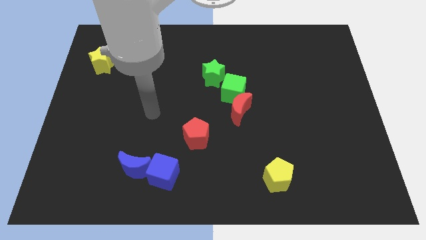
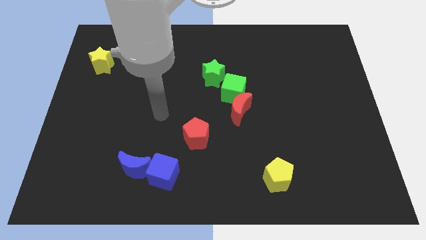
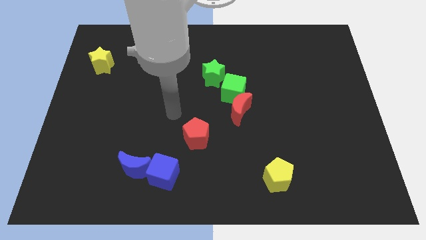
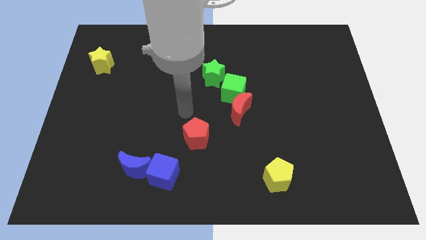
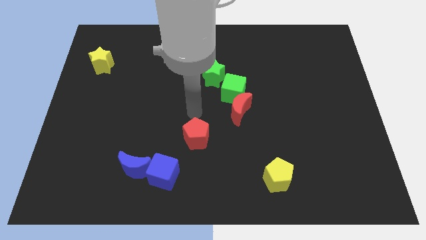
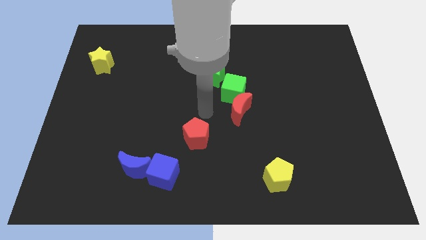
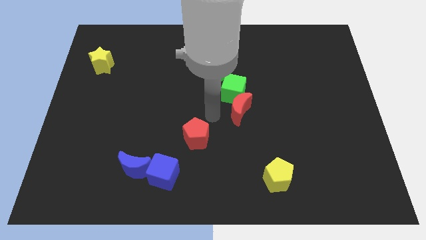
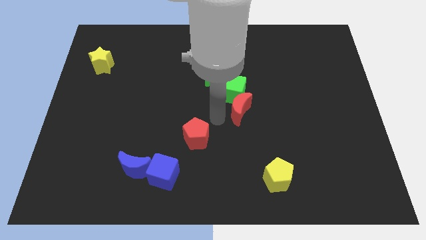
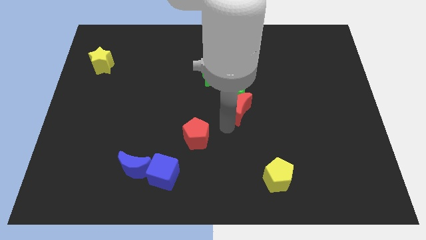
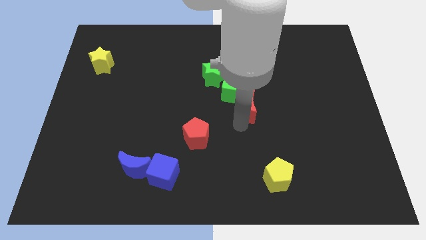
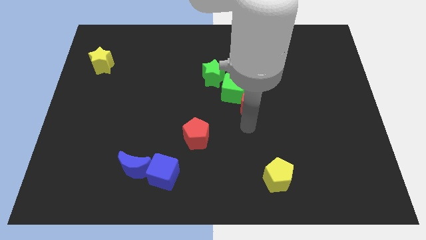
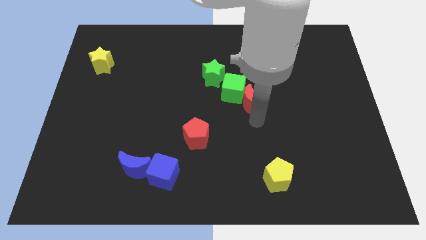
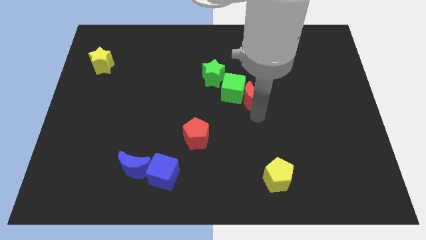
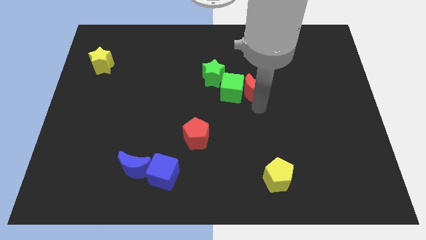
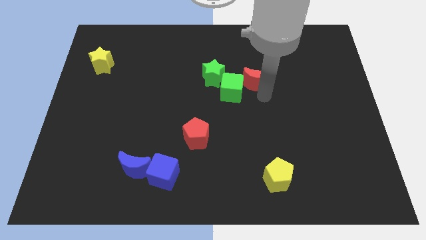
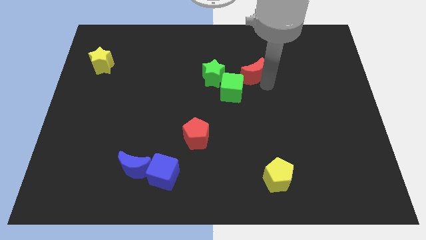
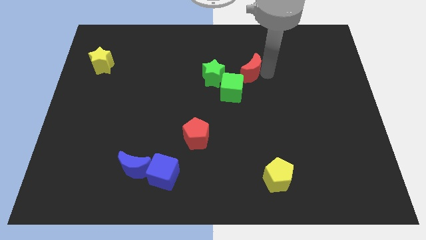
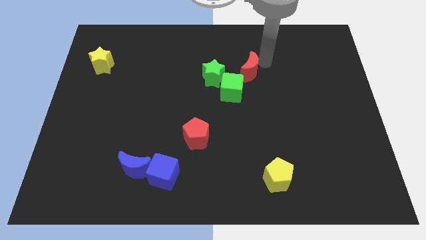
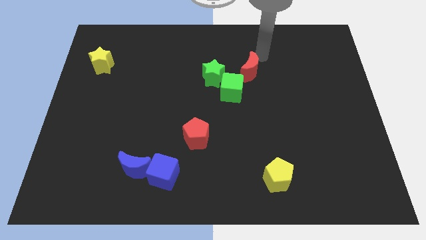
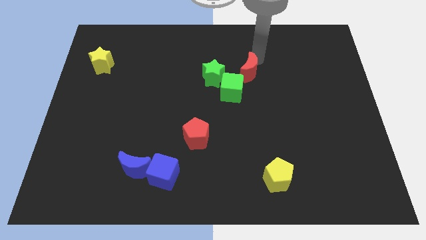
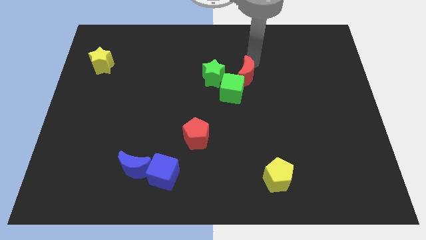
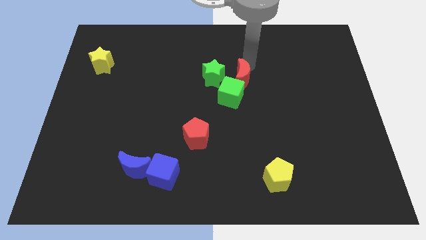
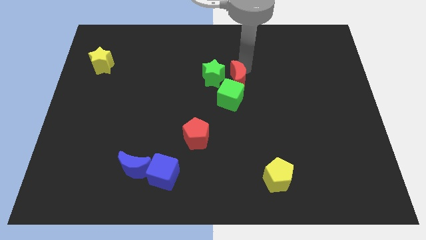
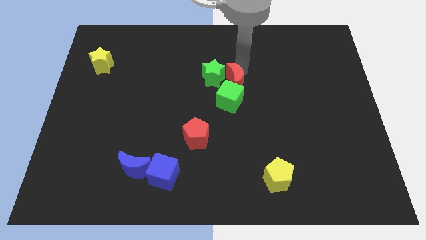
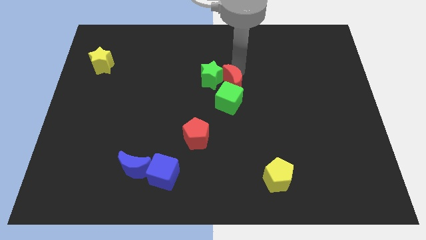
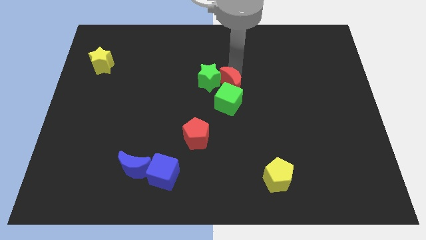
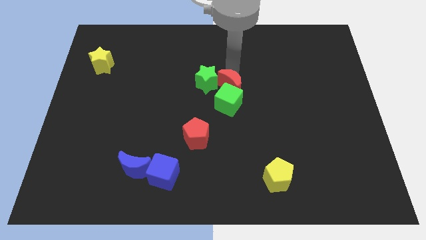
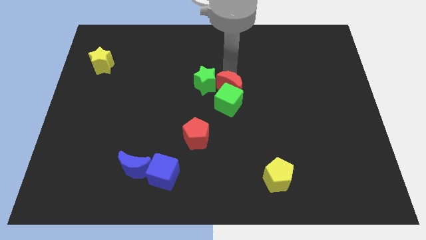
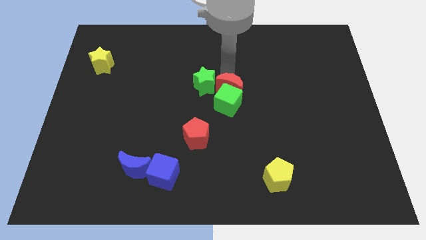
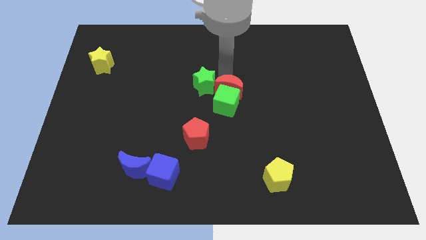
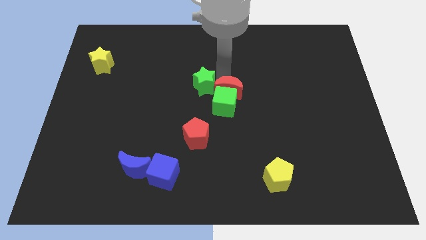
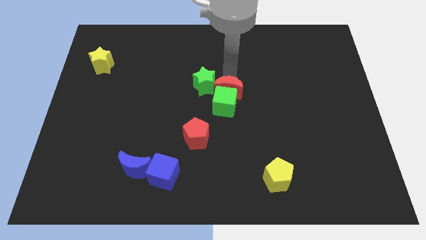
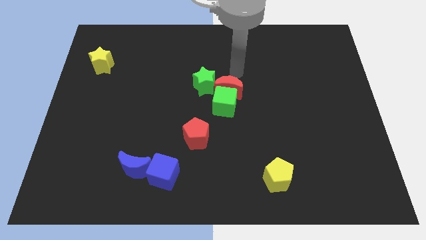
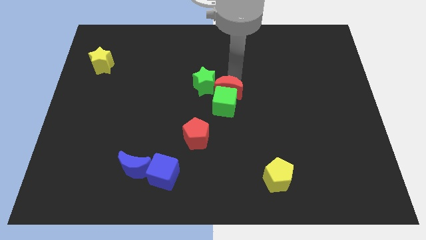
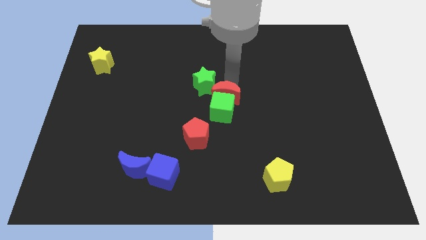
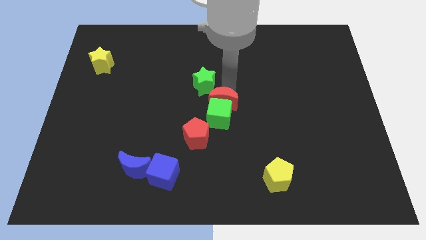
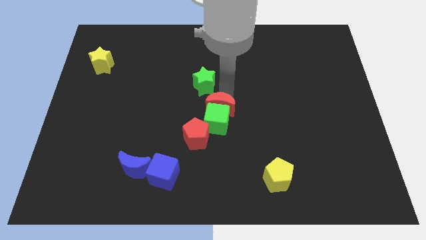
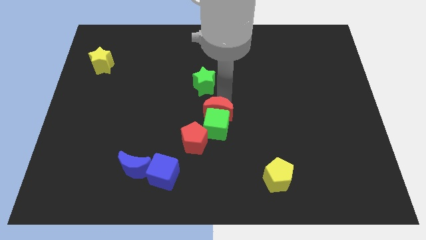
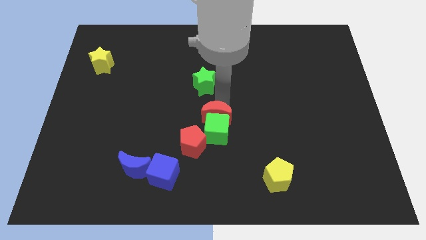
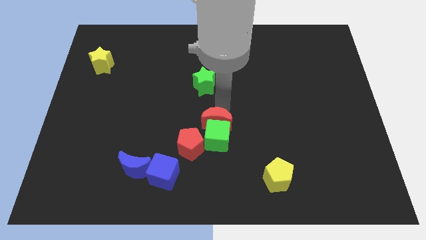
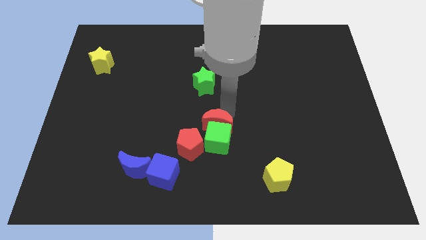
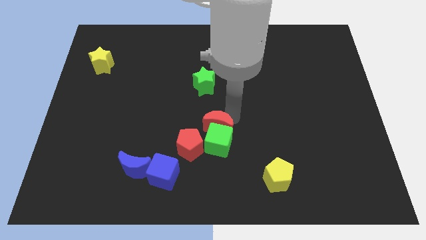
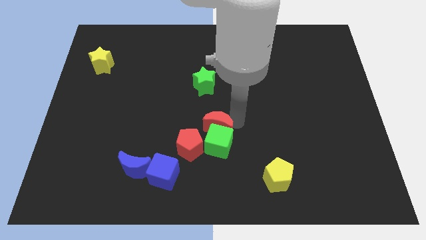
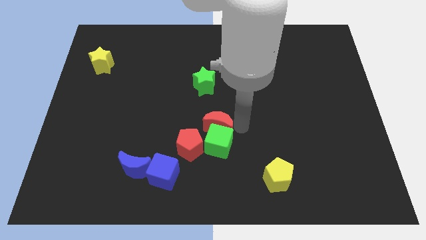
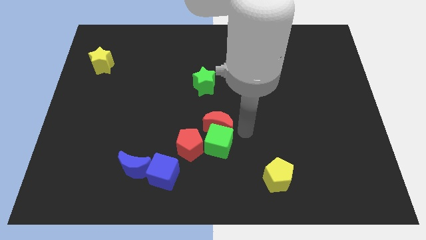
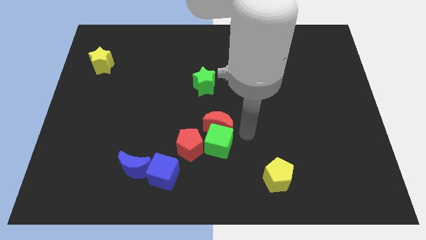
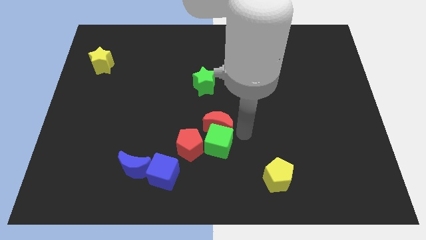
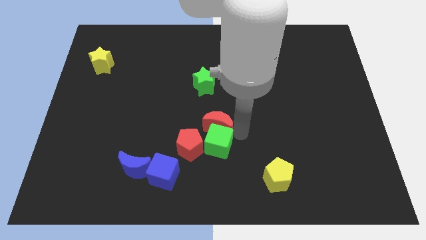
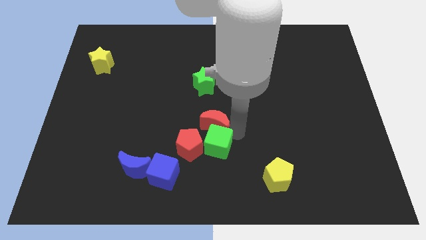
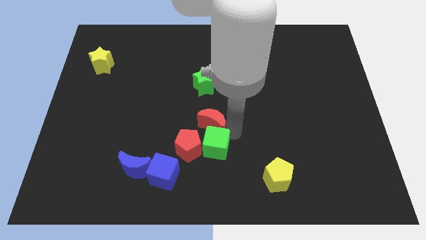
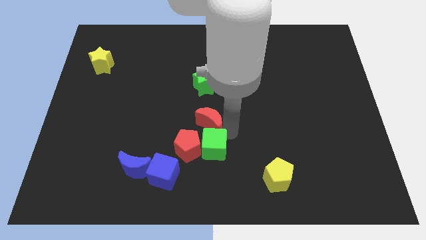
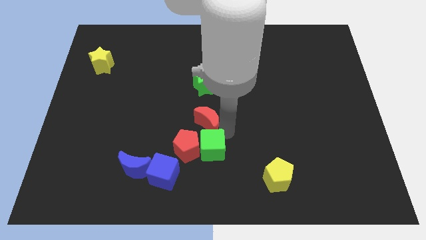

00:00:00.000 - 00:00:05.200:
slightly slide the red moon left

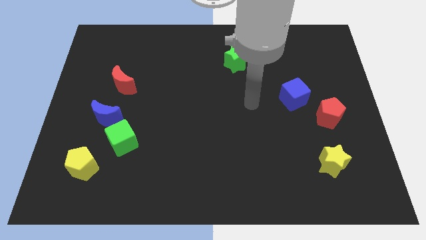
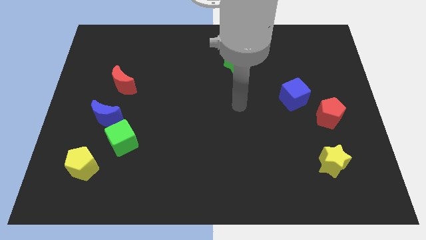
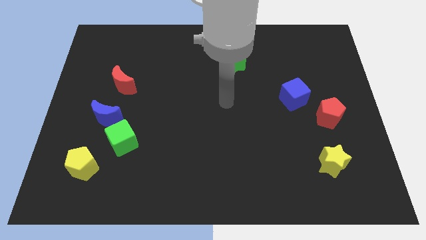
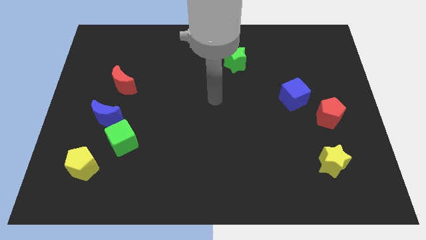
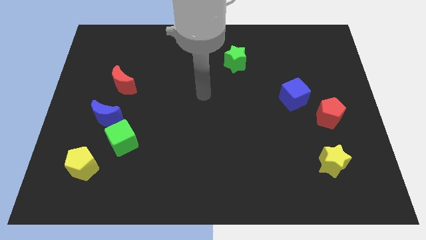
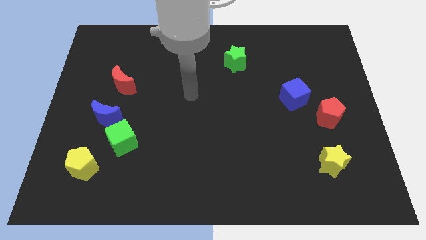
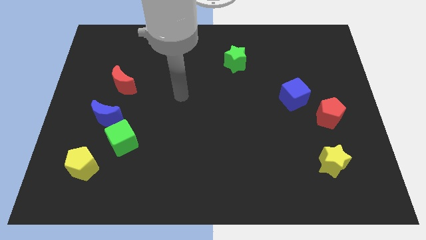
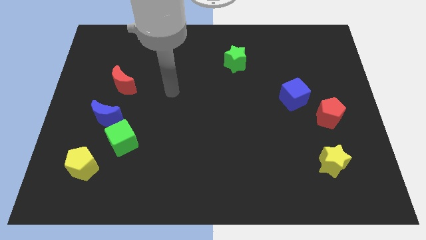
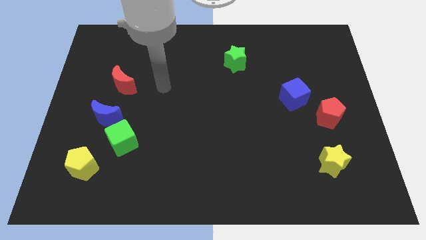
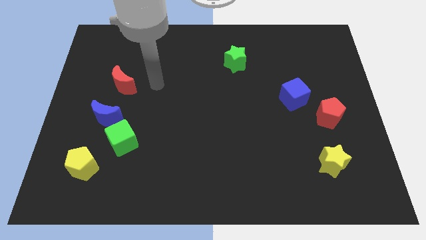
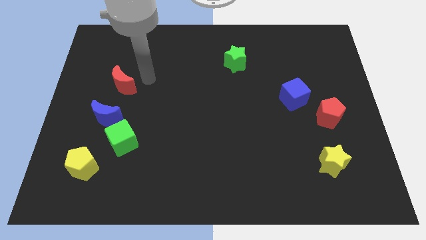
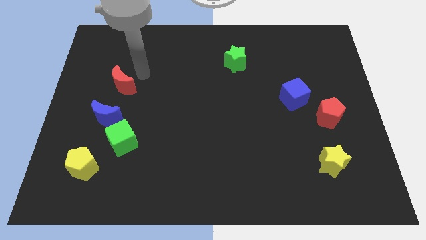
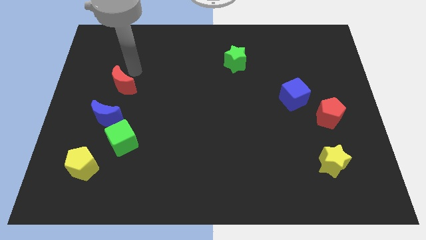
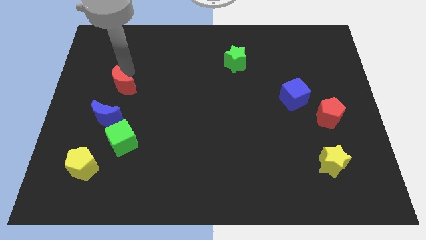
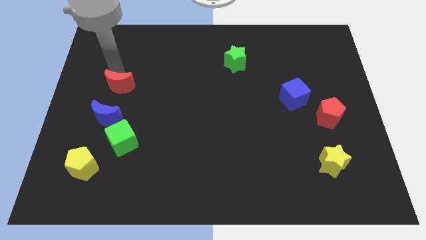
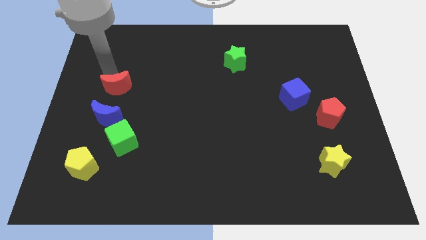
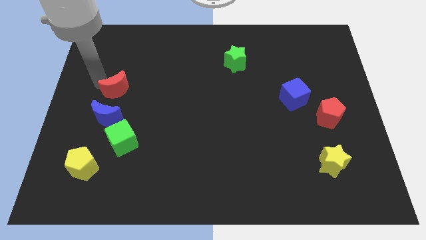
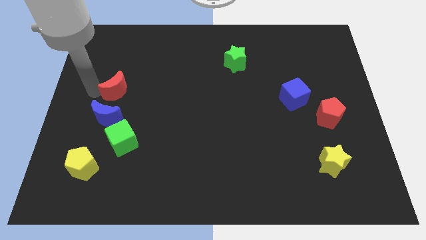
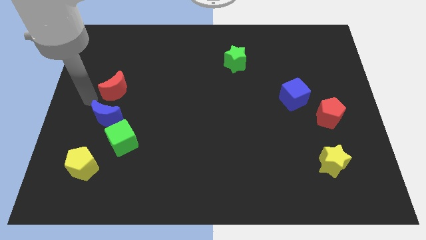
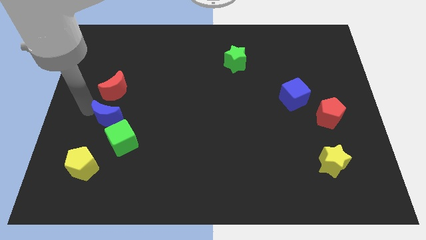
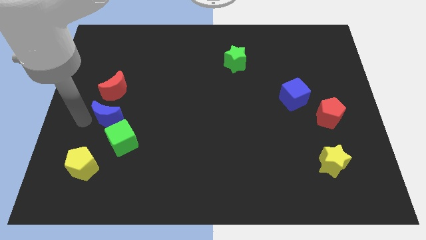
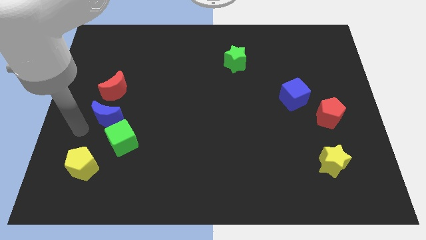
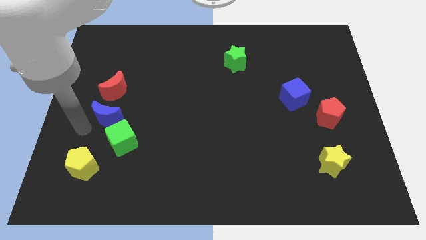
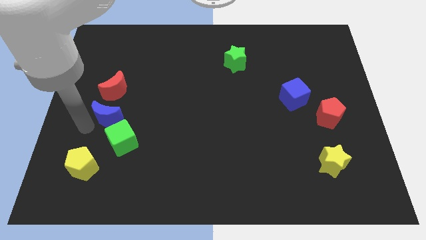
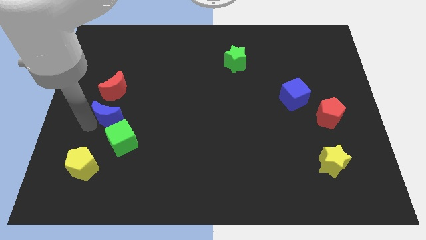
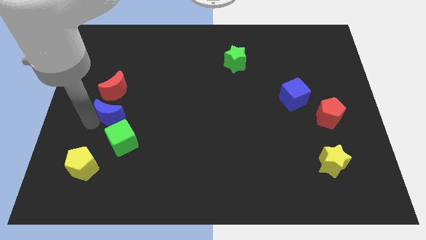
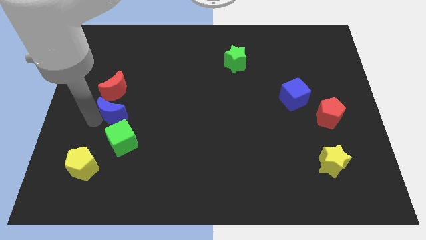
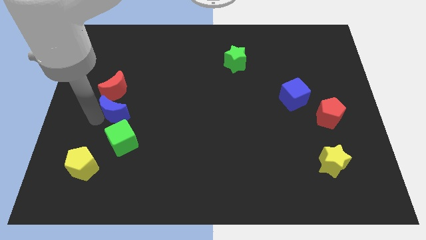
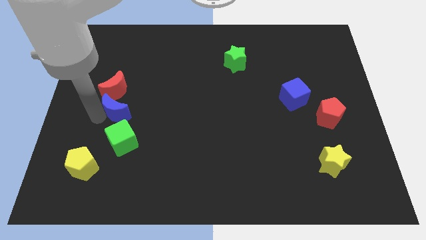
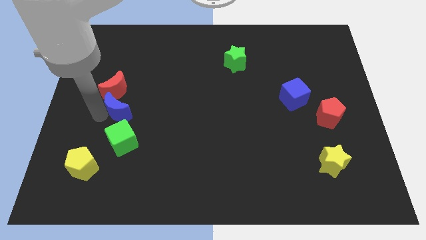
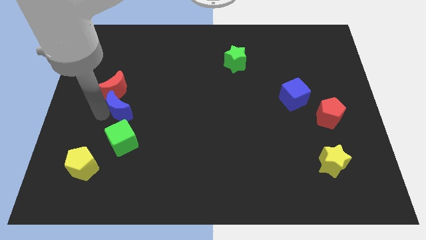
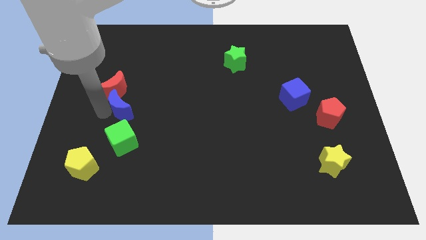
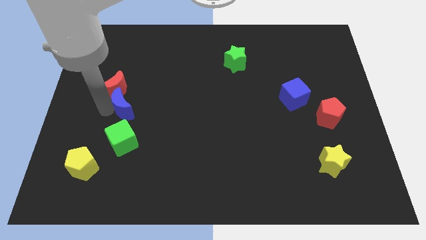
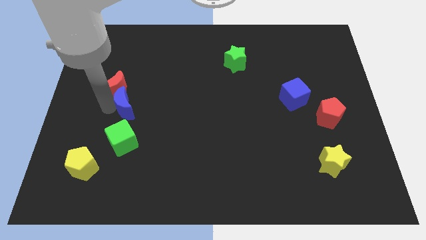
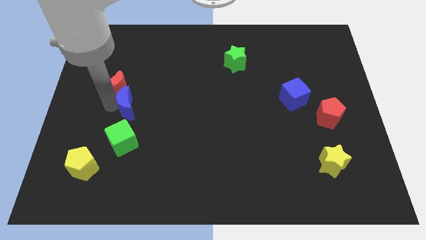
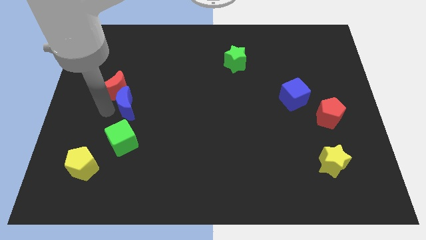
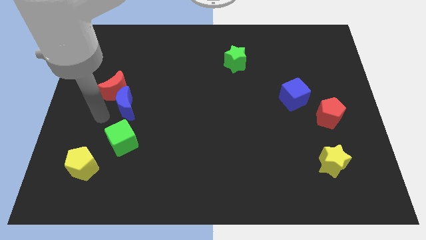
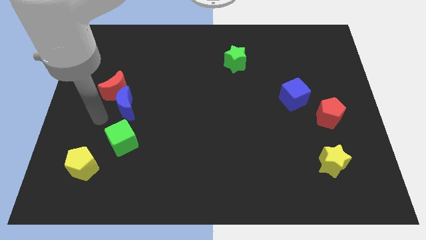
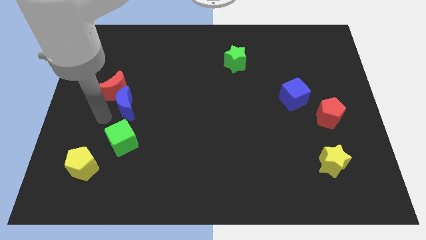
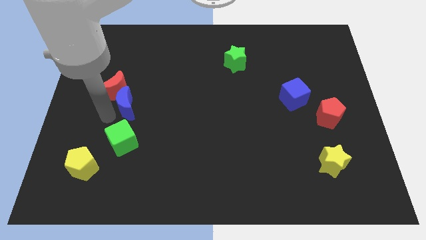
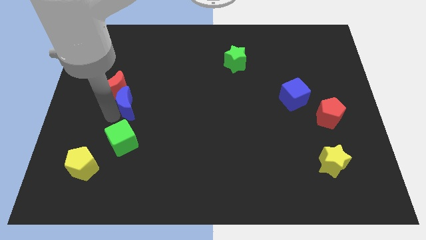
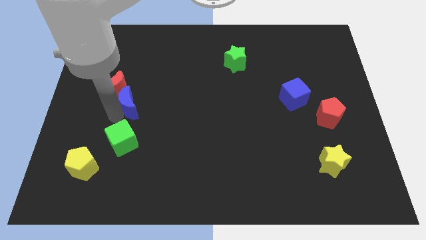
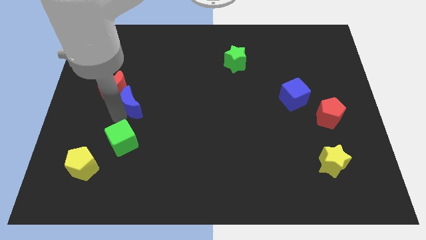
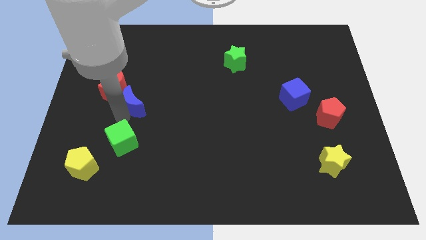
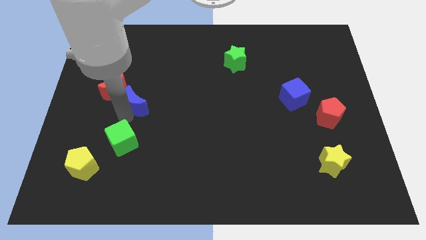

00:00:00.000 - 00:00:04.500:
push the blue moon a bit diagonally upwards and to the right
